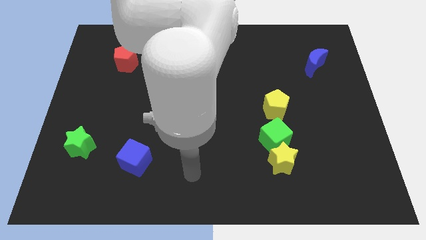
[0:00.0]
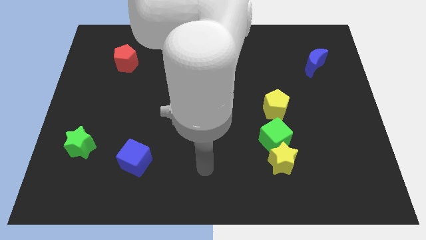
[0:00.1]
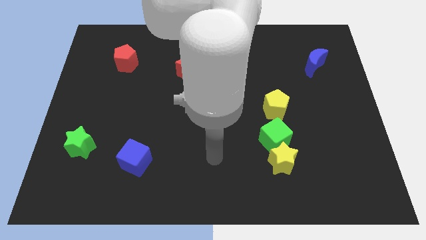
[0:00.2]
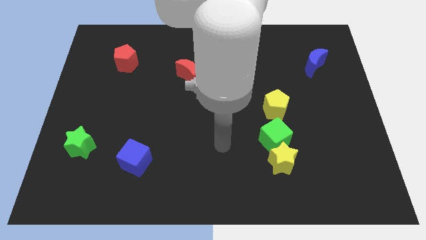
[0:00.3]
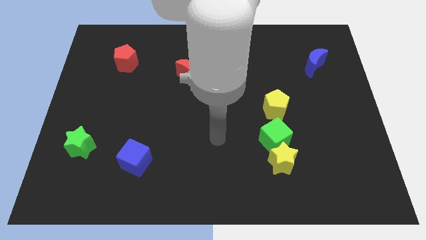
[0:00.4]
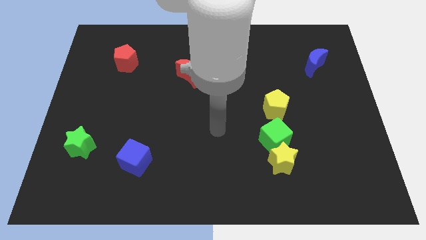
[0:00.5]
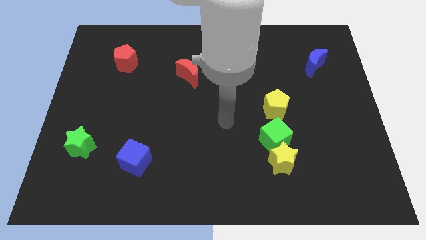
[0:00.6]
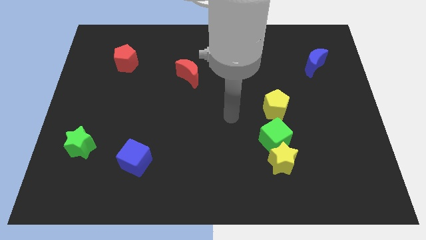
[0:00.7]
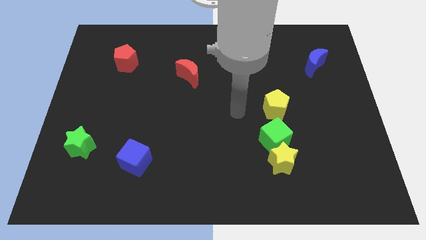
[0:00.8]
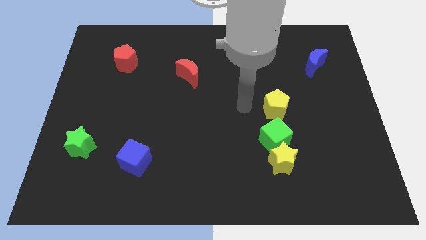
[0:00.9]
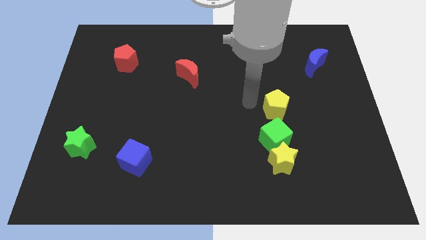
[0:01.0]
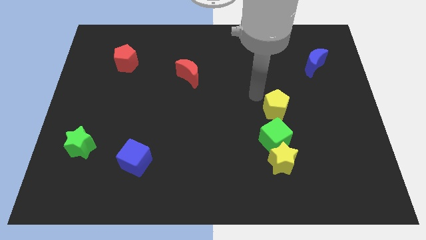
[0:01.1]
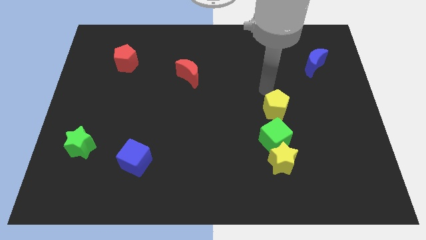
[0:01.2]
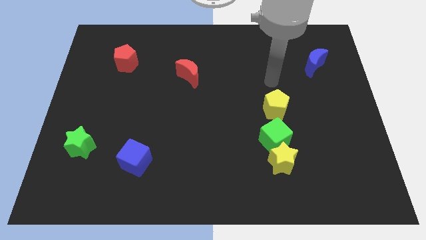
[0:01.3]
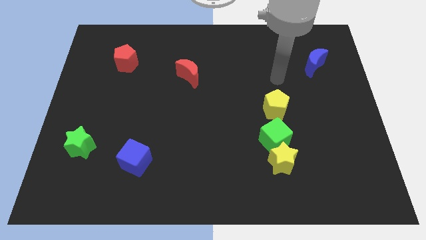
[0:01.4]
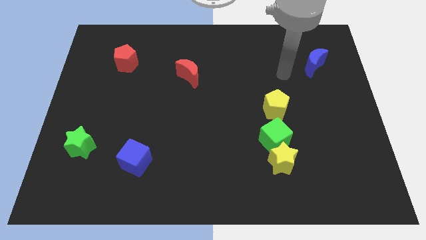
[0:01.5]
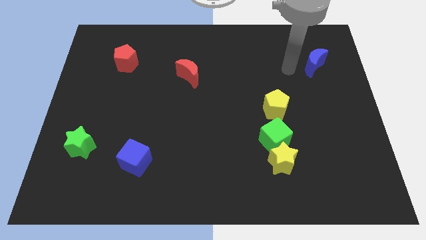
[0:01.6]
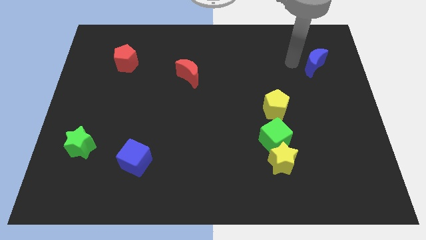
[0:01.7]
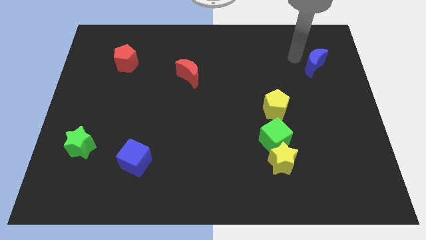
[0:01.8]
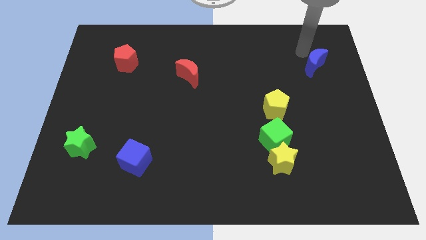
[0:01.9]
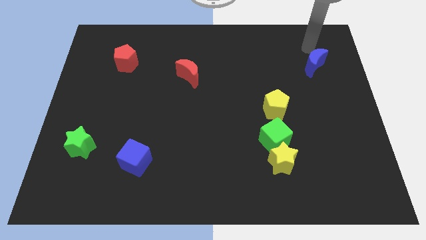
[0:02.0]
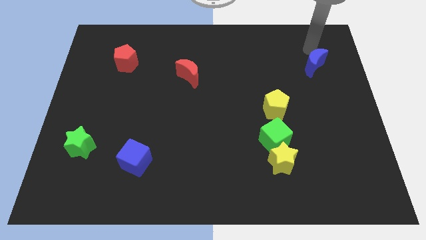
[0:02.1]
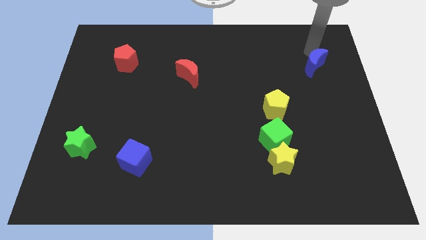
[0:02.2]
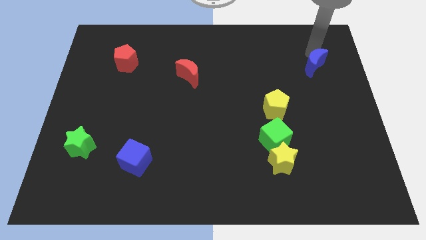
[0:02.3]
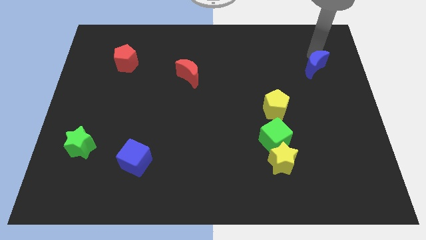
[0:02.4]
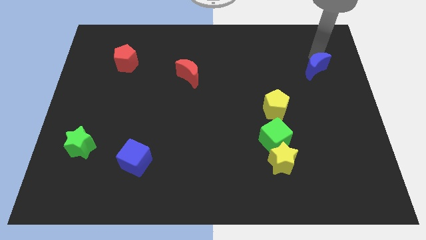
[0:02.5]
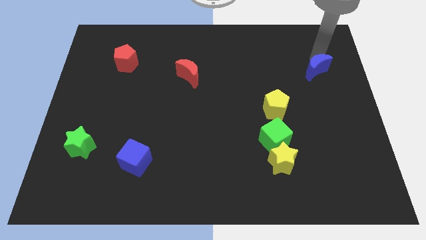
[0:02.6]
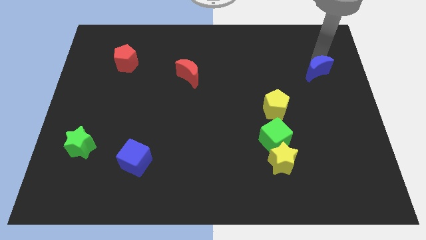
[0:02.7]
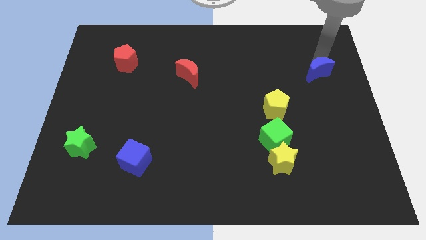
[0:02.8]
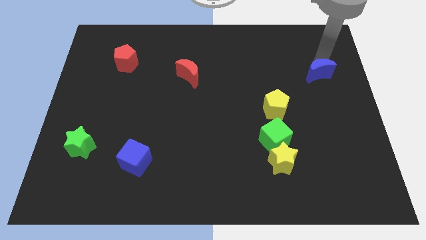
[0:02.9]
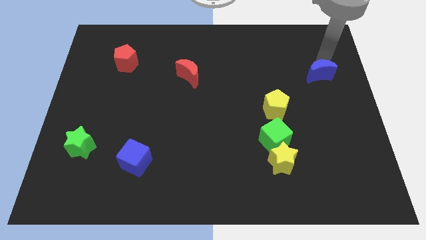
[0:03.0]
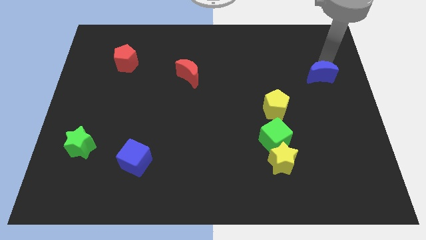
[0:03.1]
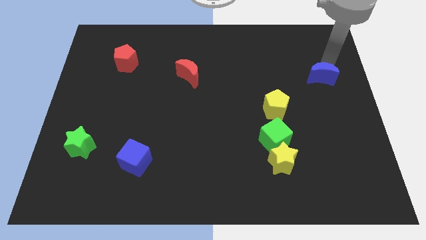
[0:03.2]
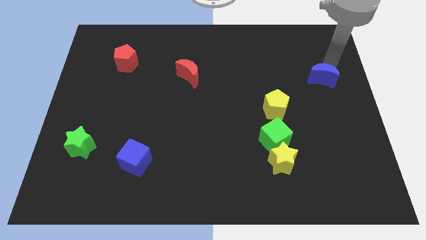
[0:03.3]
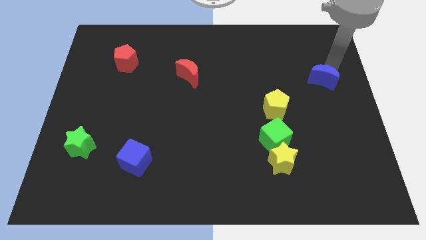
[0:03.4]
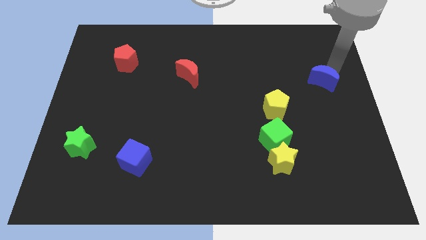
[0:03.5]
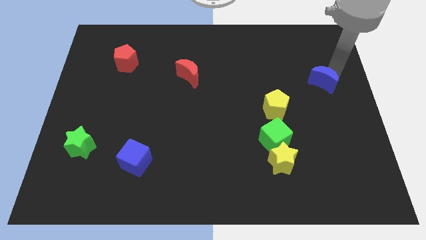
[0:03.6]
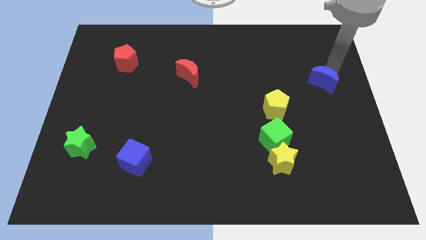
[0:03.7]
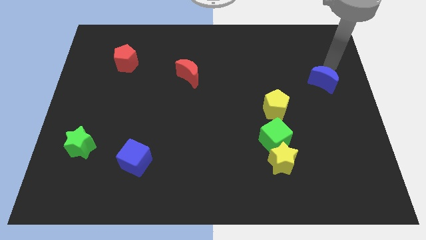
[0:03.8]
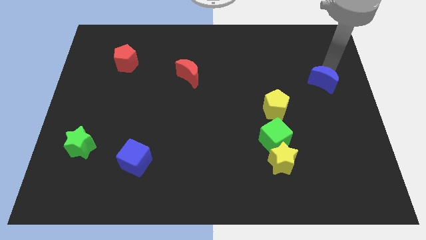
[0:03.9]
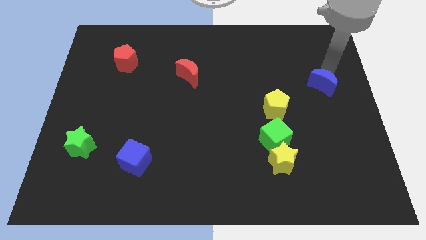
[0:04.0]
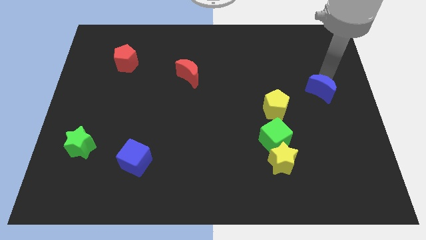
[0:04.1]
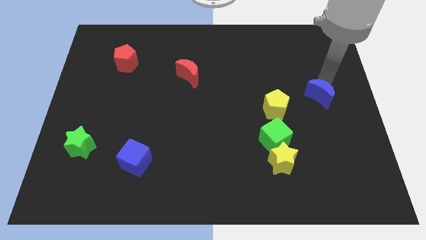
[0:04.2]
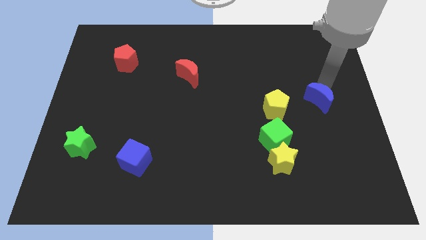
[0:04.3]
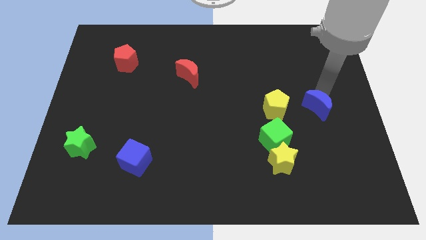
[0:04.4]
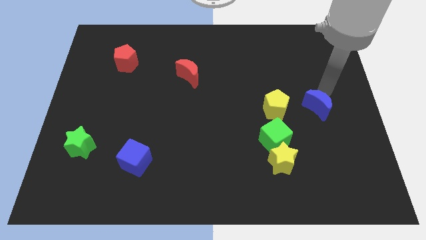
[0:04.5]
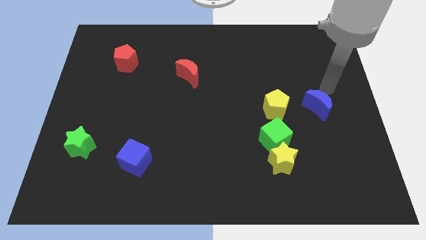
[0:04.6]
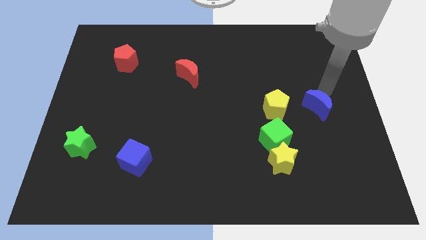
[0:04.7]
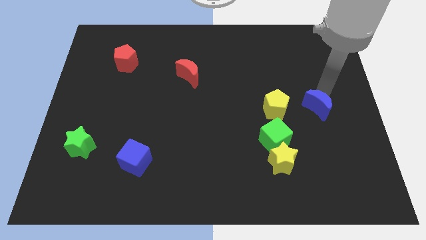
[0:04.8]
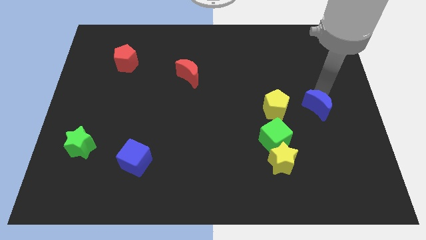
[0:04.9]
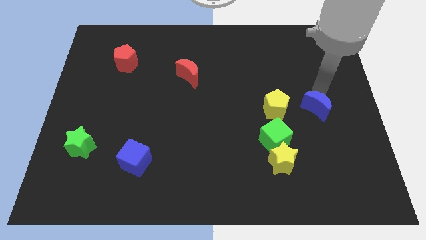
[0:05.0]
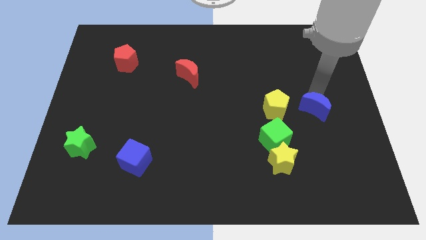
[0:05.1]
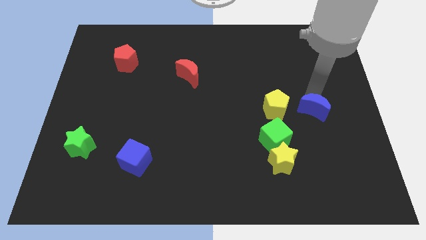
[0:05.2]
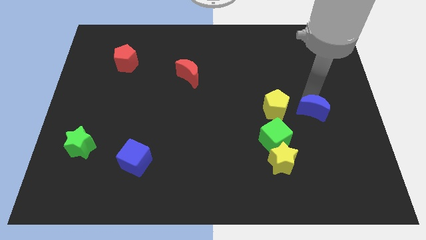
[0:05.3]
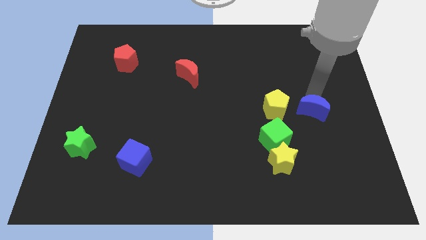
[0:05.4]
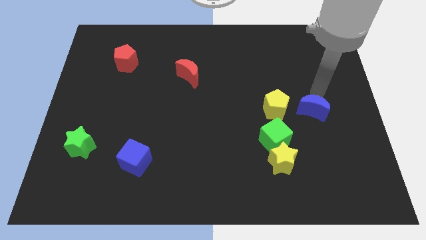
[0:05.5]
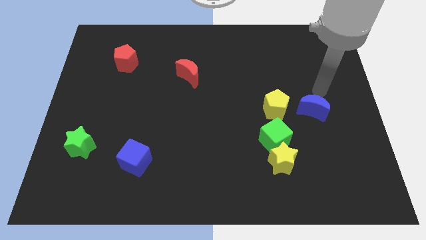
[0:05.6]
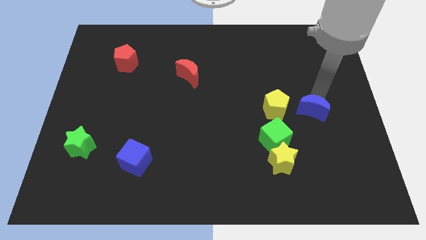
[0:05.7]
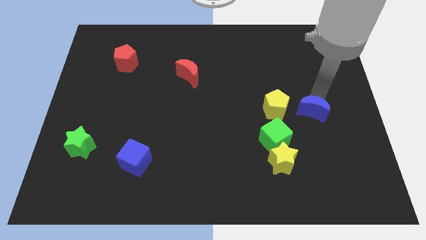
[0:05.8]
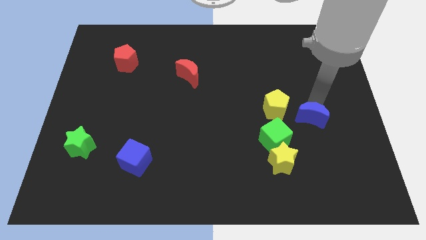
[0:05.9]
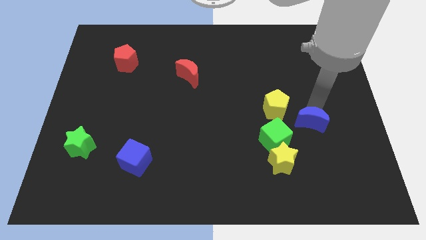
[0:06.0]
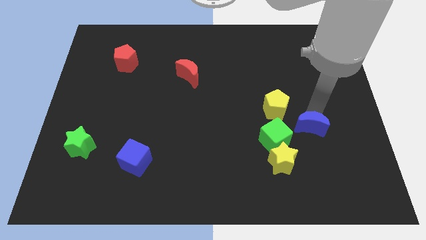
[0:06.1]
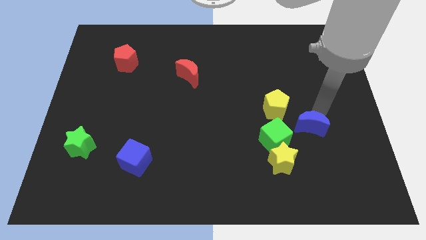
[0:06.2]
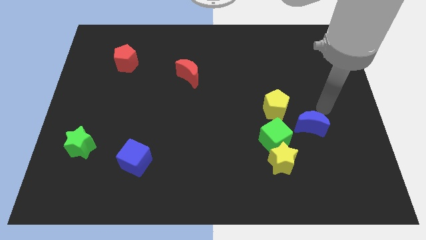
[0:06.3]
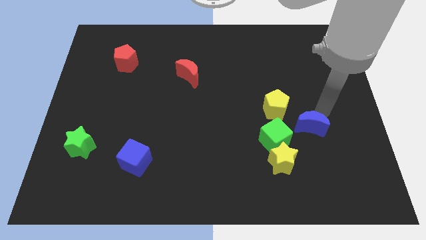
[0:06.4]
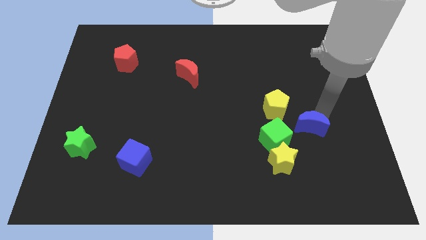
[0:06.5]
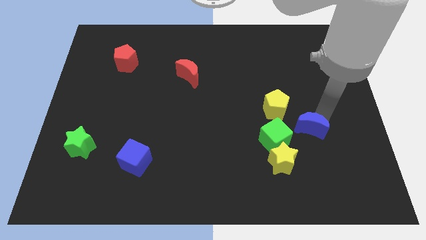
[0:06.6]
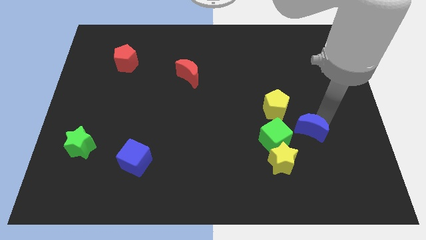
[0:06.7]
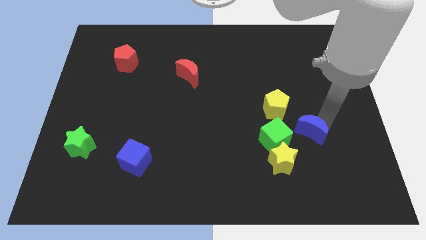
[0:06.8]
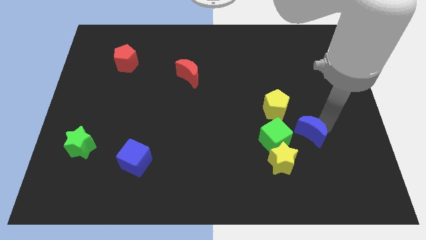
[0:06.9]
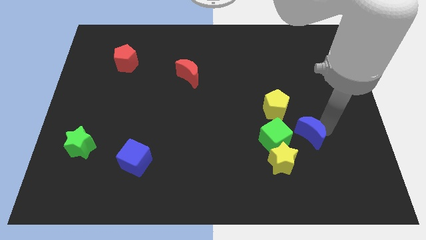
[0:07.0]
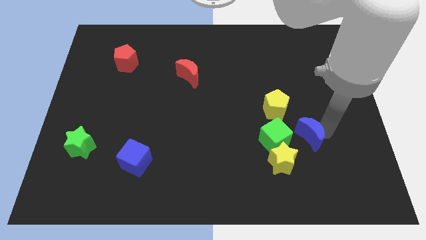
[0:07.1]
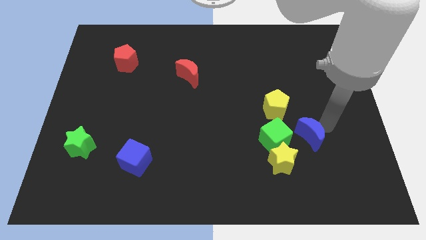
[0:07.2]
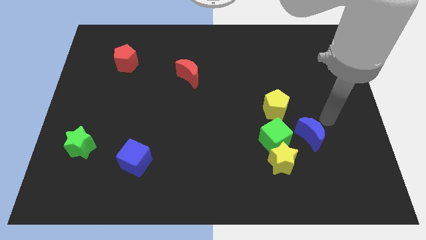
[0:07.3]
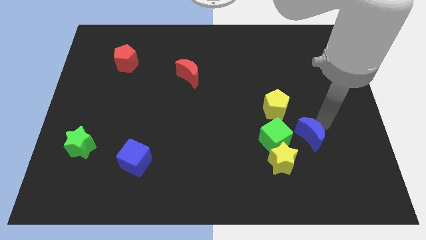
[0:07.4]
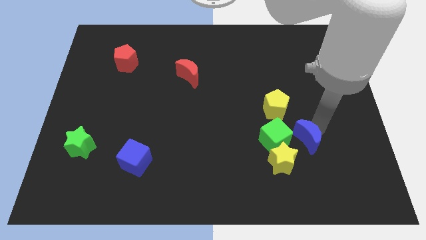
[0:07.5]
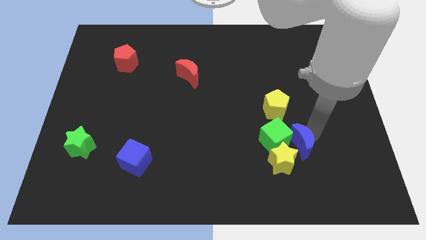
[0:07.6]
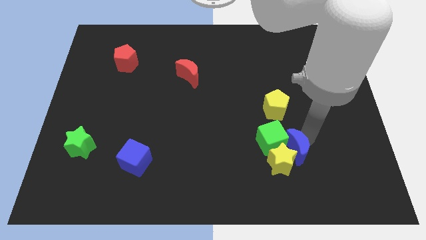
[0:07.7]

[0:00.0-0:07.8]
slide the blue moon to the yellow star

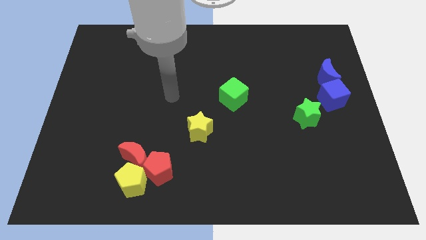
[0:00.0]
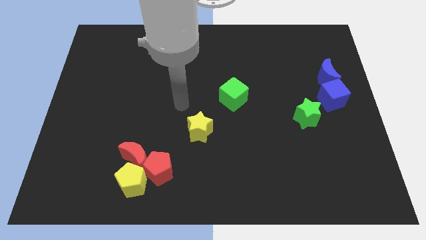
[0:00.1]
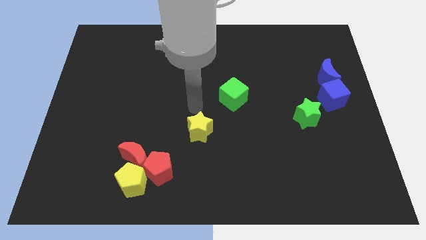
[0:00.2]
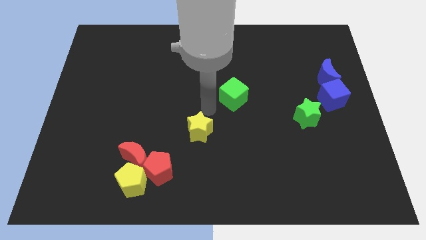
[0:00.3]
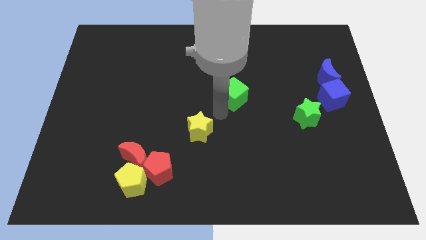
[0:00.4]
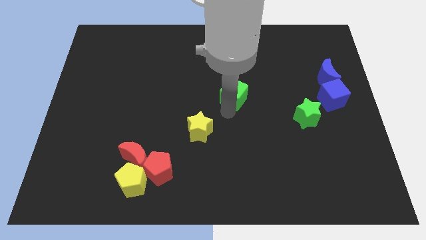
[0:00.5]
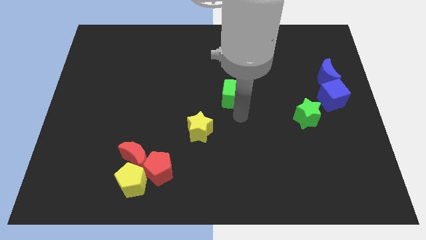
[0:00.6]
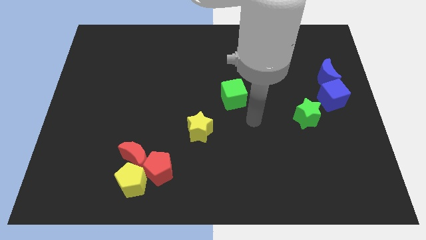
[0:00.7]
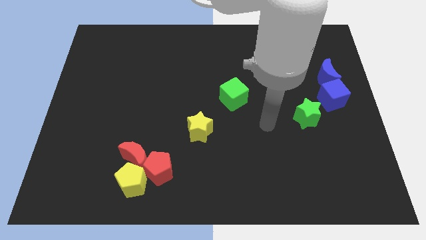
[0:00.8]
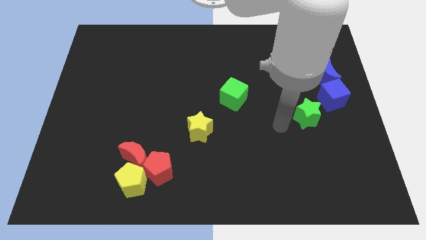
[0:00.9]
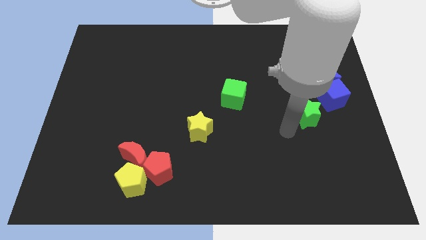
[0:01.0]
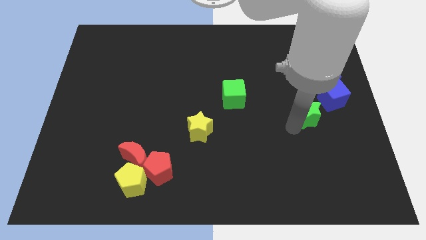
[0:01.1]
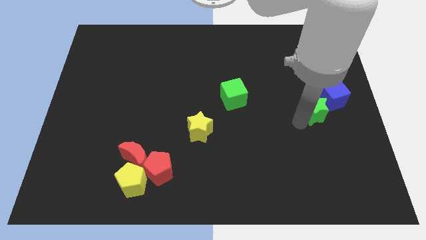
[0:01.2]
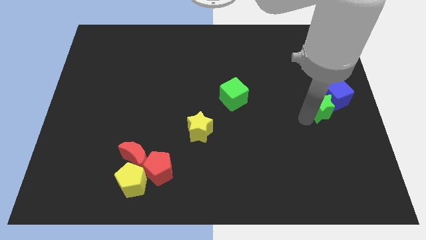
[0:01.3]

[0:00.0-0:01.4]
put the green star to the blue cube
